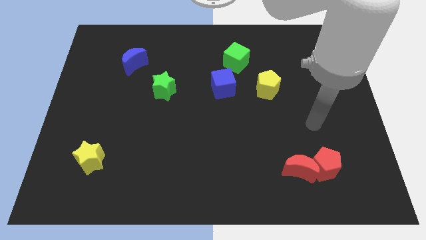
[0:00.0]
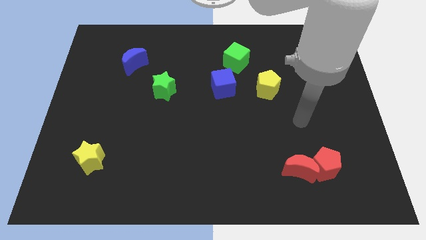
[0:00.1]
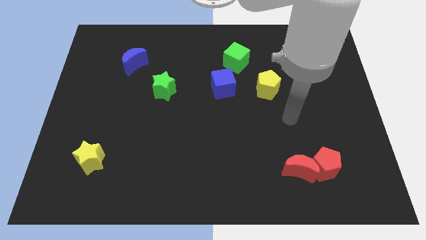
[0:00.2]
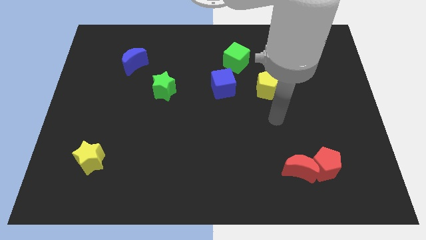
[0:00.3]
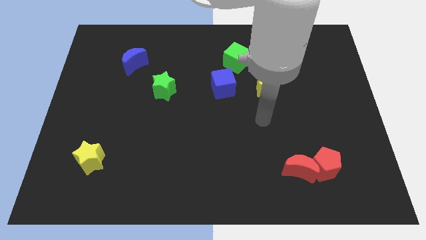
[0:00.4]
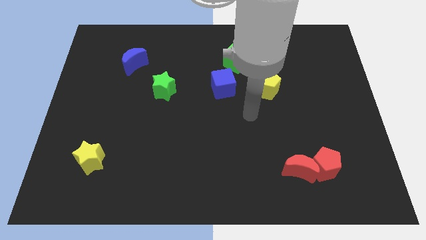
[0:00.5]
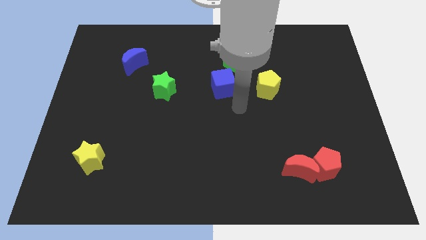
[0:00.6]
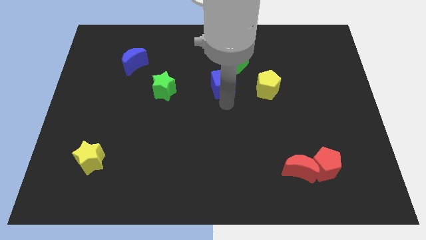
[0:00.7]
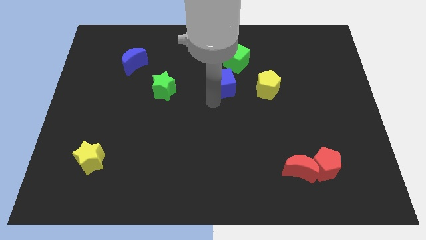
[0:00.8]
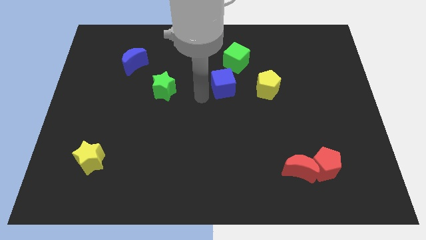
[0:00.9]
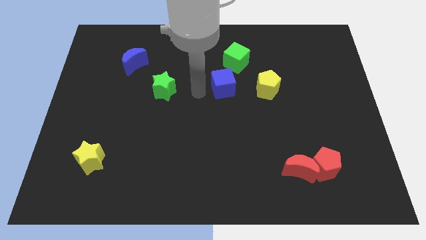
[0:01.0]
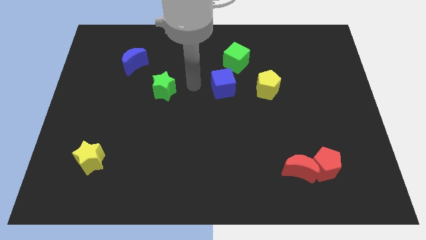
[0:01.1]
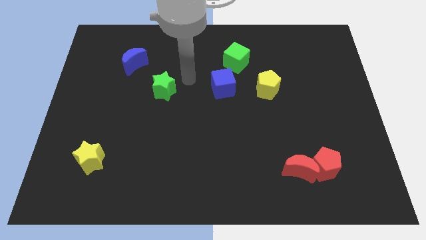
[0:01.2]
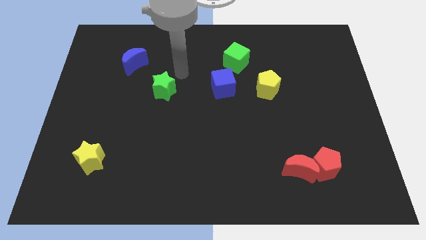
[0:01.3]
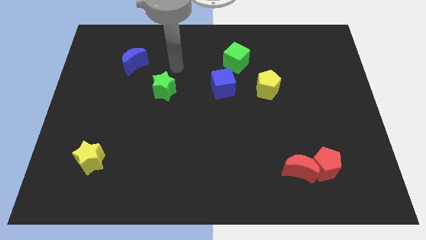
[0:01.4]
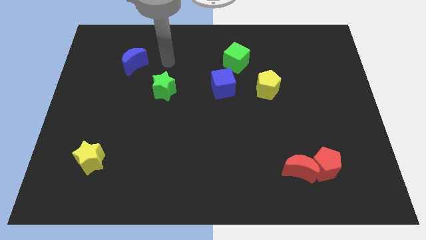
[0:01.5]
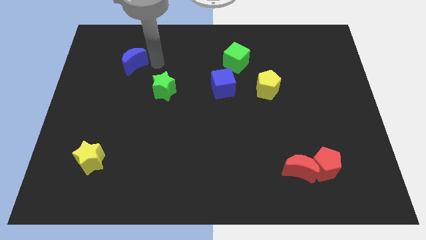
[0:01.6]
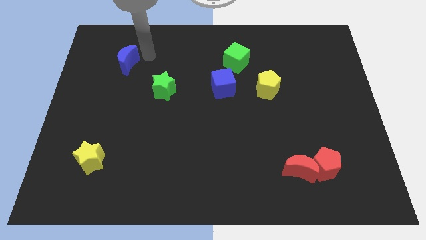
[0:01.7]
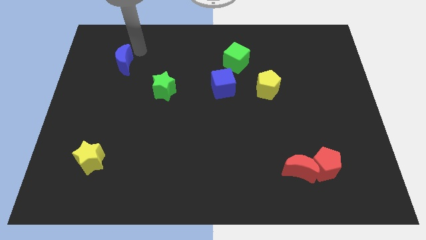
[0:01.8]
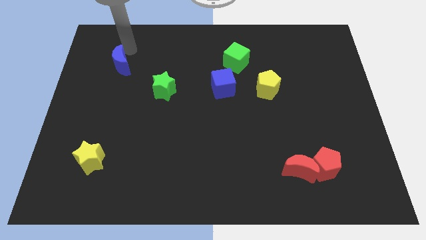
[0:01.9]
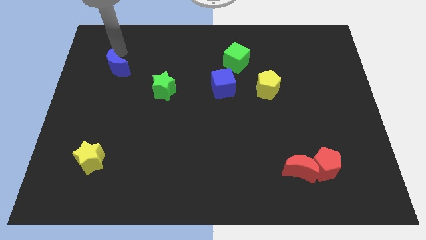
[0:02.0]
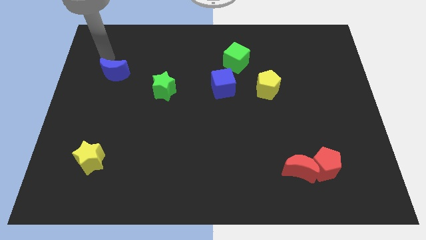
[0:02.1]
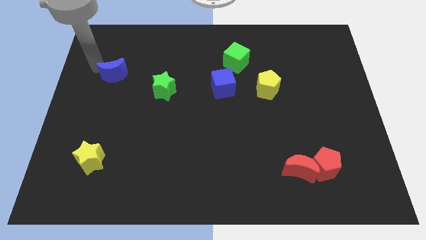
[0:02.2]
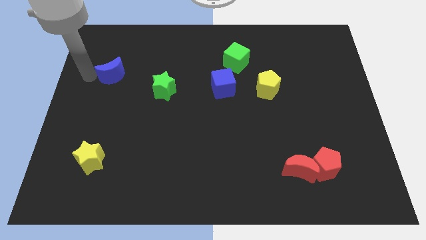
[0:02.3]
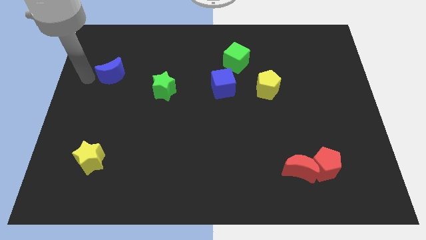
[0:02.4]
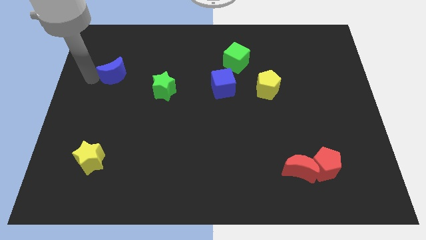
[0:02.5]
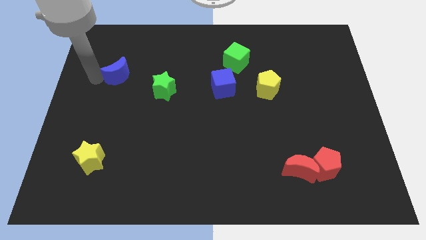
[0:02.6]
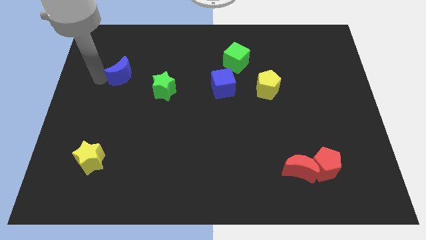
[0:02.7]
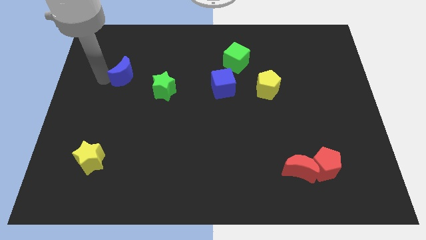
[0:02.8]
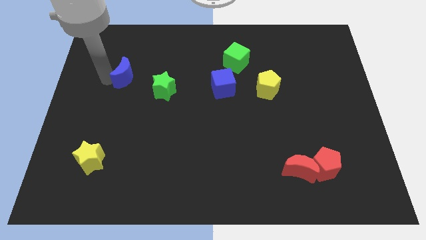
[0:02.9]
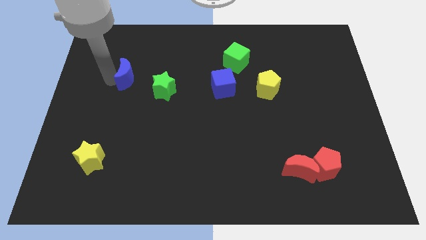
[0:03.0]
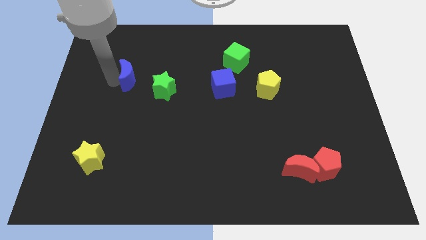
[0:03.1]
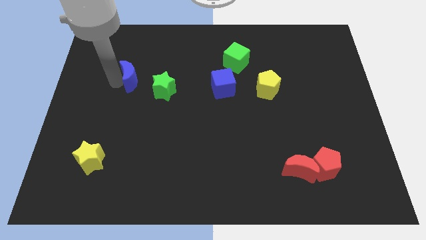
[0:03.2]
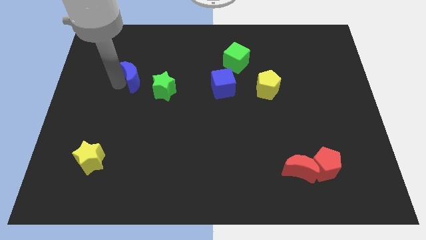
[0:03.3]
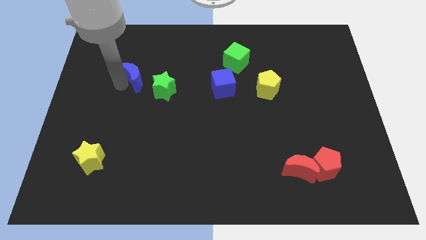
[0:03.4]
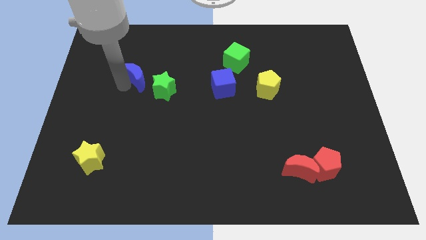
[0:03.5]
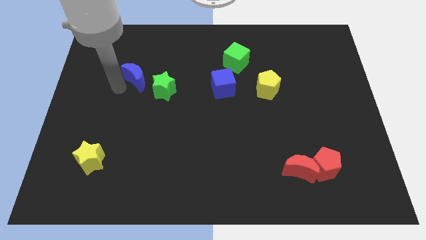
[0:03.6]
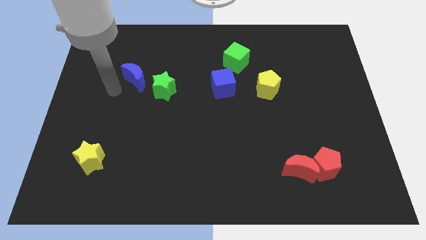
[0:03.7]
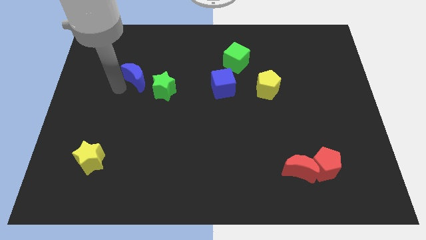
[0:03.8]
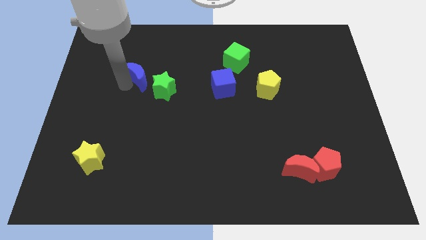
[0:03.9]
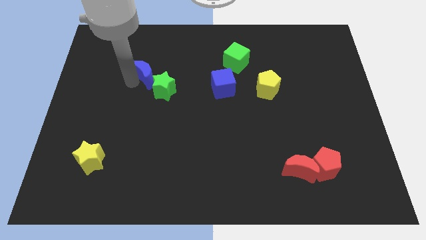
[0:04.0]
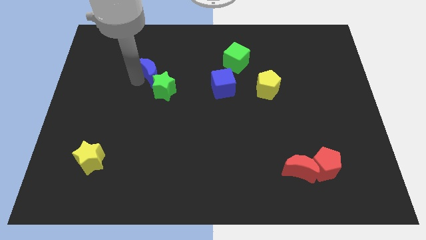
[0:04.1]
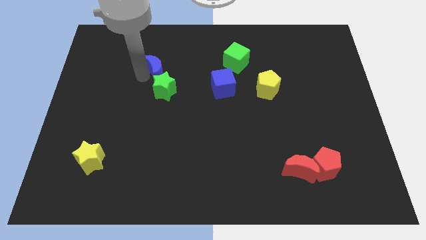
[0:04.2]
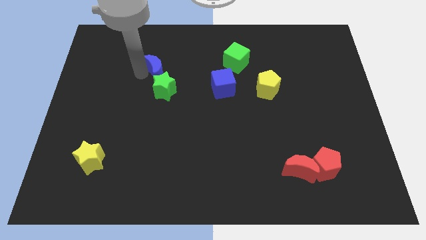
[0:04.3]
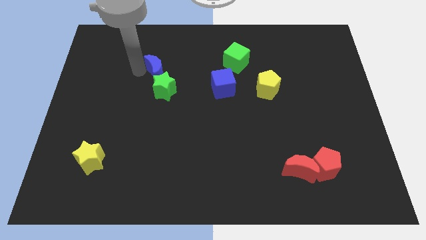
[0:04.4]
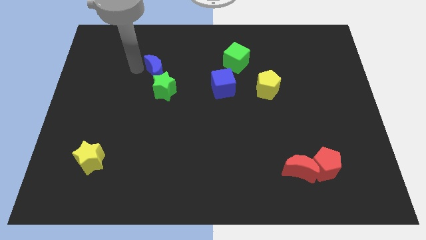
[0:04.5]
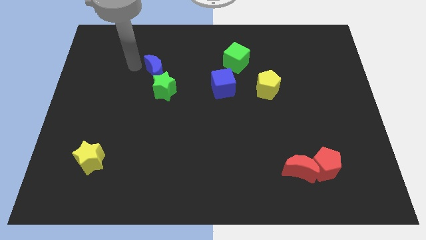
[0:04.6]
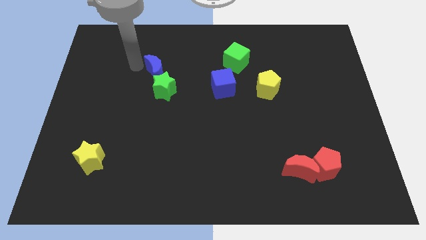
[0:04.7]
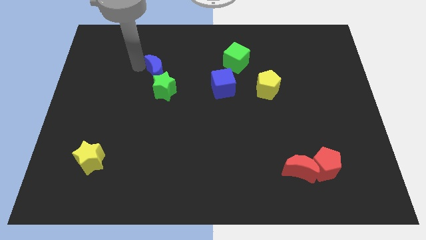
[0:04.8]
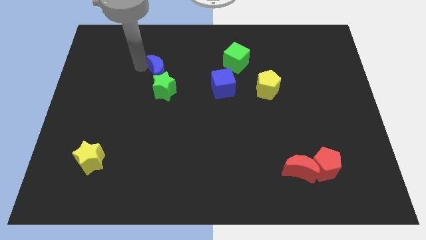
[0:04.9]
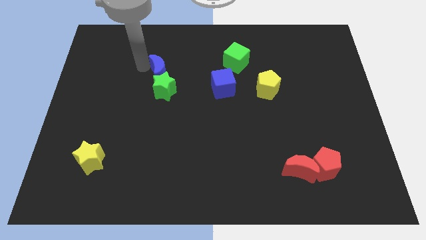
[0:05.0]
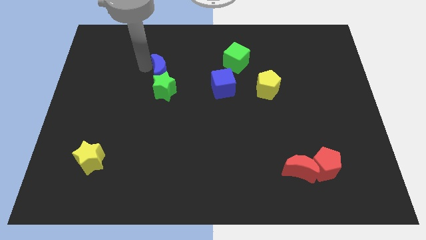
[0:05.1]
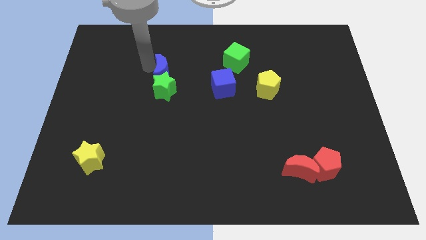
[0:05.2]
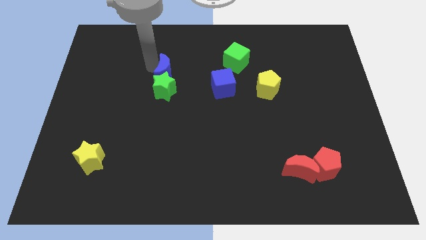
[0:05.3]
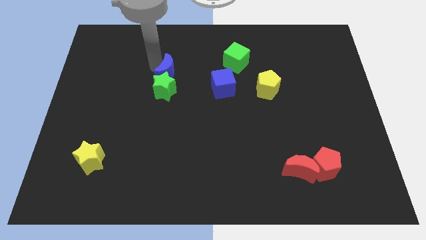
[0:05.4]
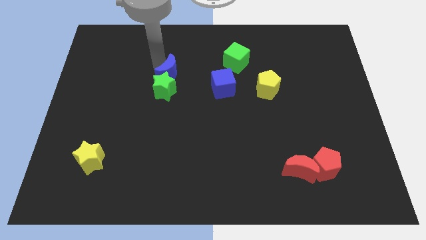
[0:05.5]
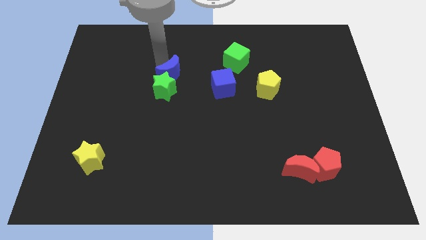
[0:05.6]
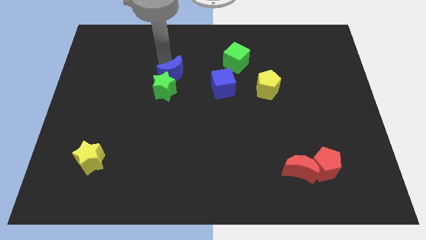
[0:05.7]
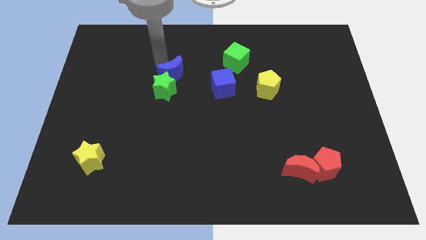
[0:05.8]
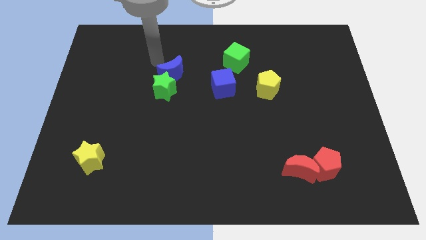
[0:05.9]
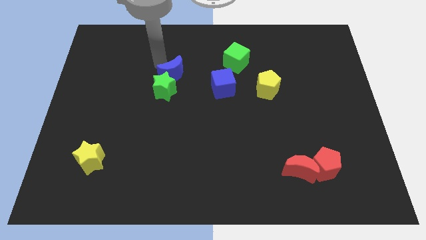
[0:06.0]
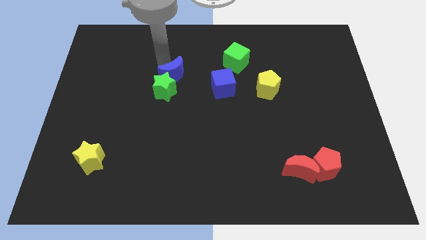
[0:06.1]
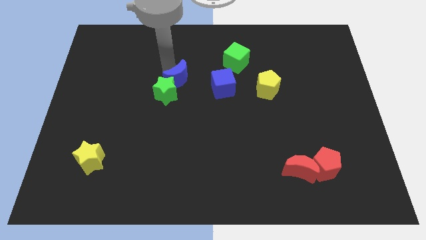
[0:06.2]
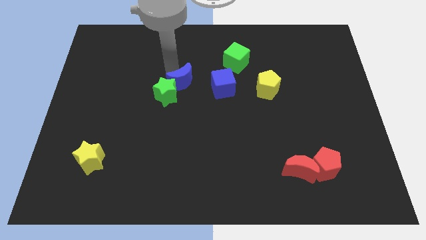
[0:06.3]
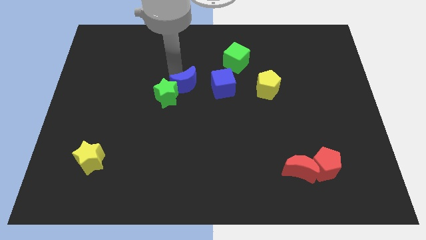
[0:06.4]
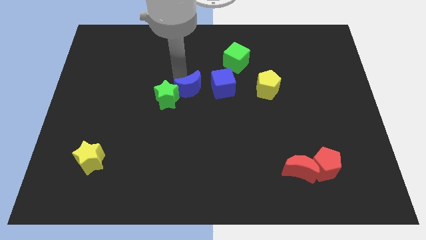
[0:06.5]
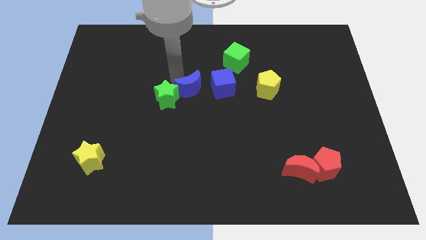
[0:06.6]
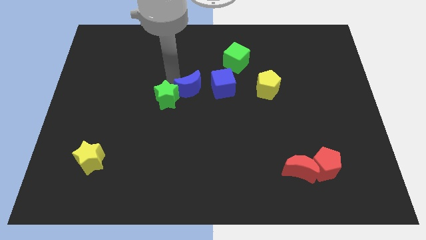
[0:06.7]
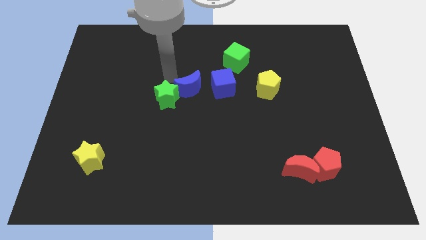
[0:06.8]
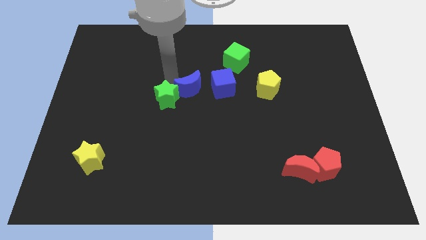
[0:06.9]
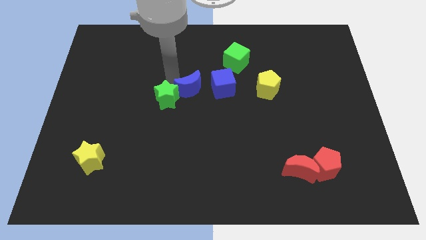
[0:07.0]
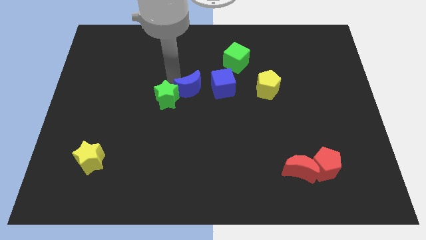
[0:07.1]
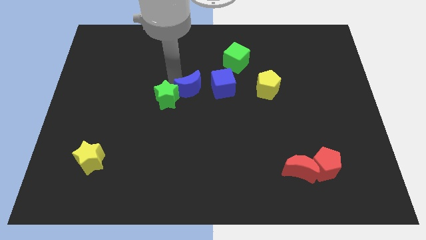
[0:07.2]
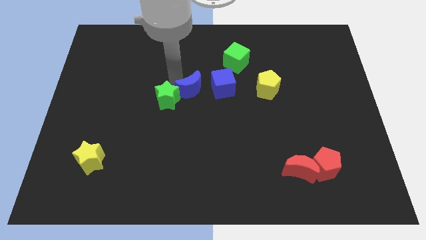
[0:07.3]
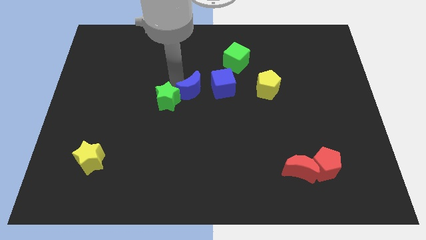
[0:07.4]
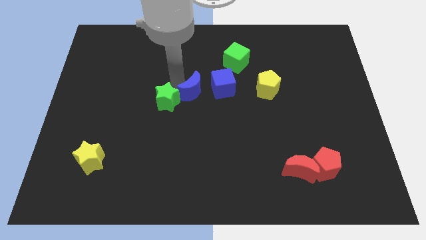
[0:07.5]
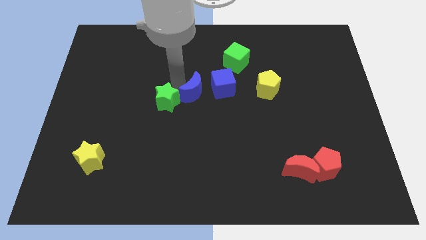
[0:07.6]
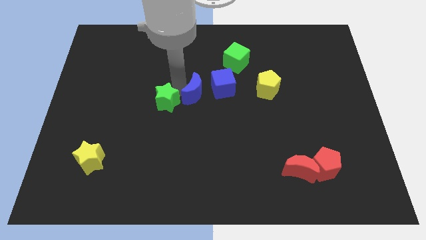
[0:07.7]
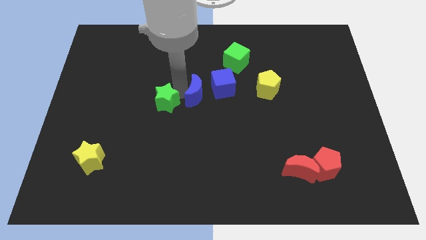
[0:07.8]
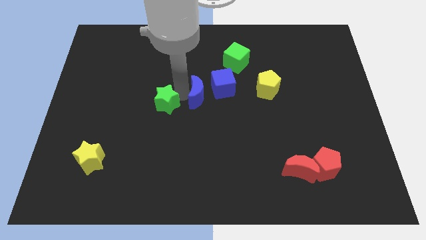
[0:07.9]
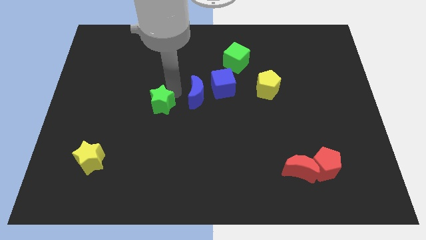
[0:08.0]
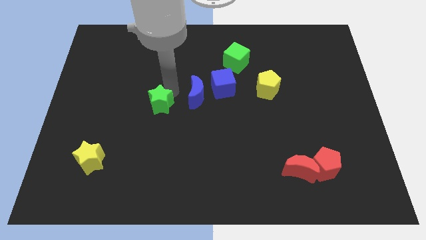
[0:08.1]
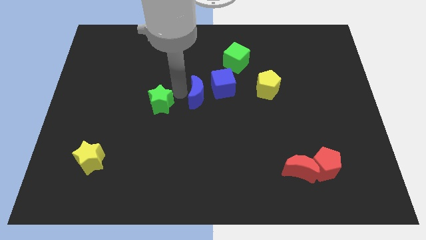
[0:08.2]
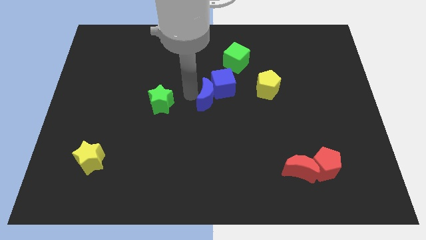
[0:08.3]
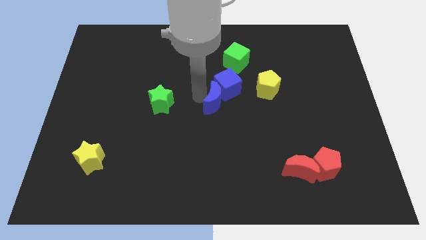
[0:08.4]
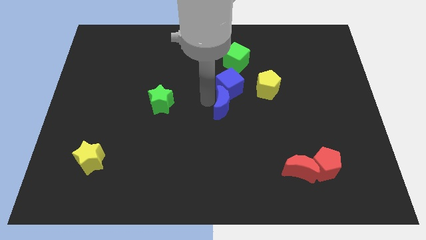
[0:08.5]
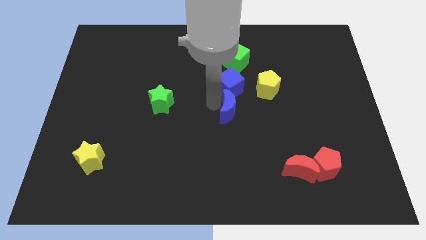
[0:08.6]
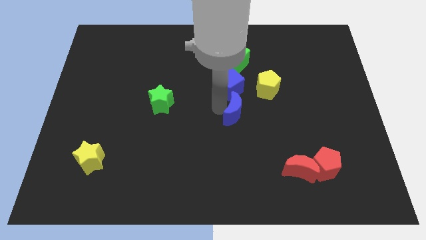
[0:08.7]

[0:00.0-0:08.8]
push the blue moon diagonally down and to the right of the blue cube
